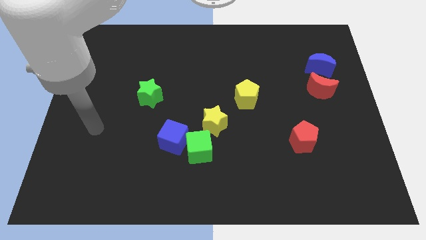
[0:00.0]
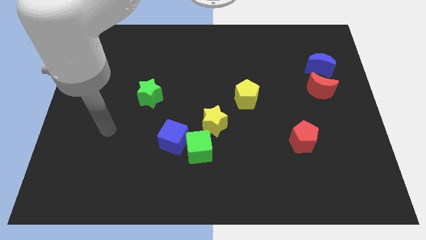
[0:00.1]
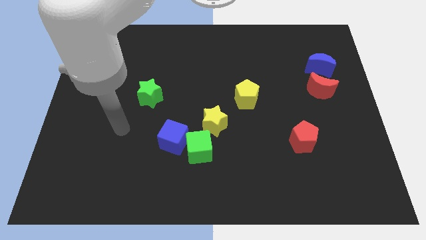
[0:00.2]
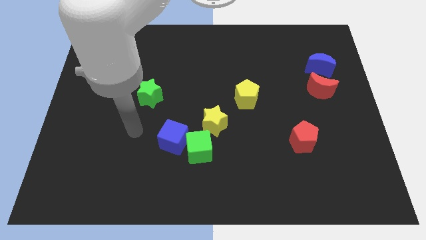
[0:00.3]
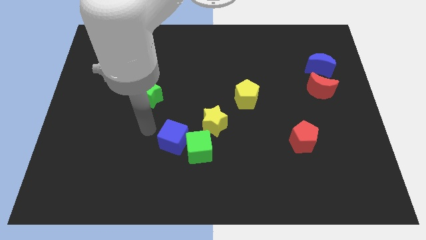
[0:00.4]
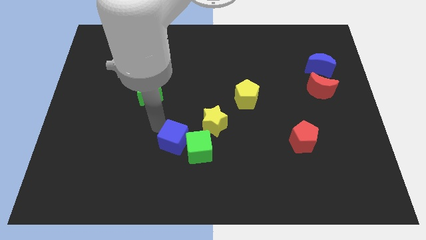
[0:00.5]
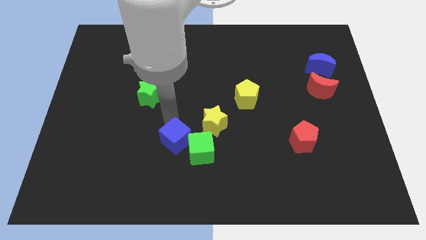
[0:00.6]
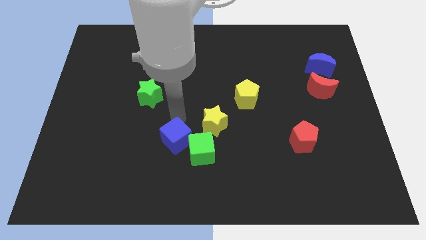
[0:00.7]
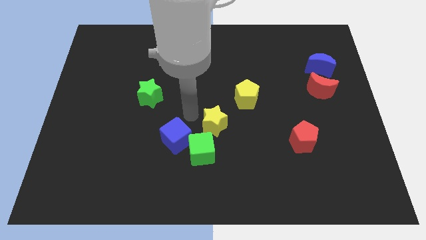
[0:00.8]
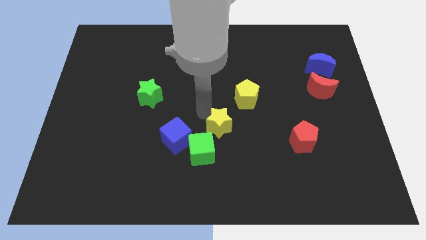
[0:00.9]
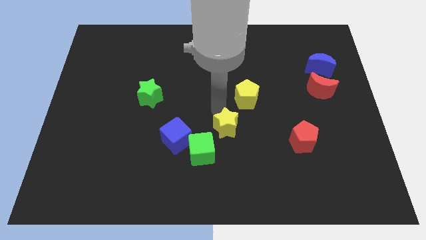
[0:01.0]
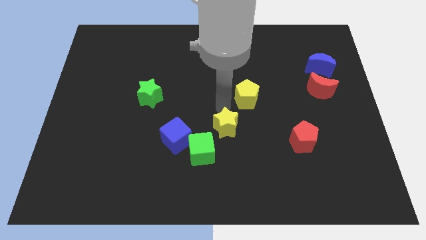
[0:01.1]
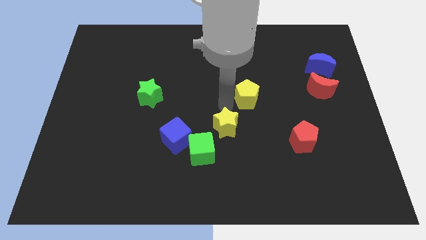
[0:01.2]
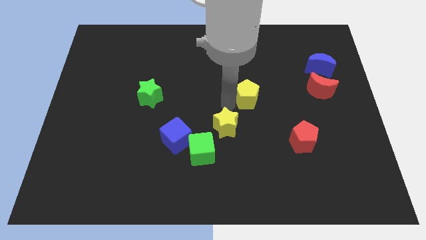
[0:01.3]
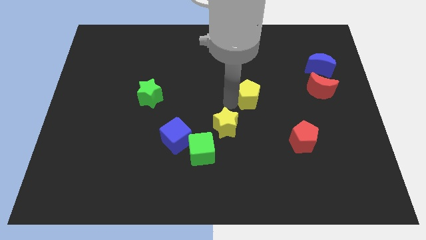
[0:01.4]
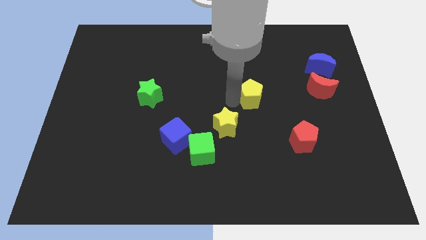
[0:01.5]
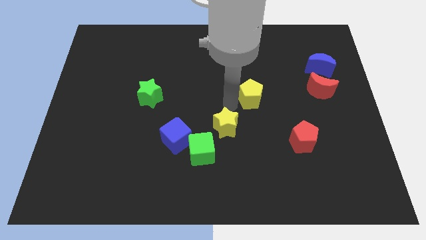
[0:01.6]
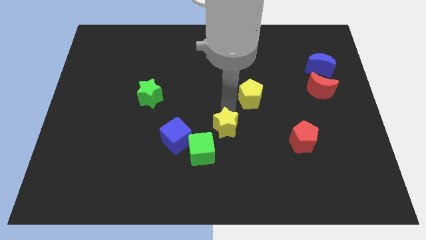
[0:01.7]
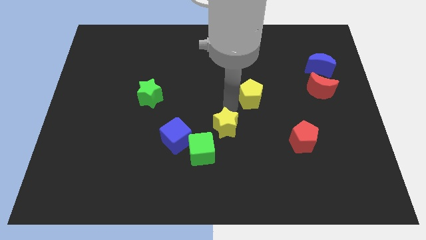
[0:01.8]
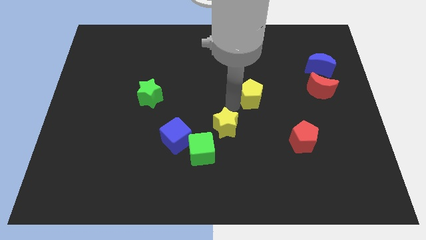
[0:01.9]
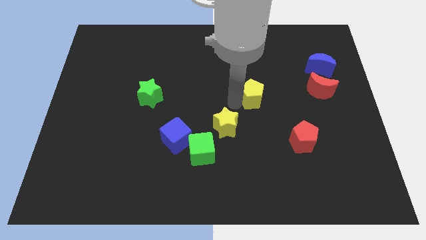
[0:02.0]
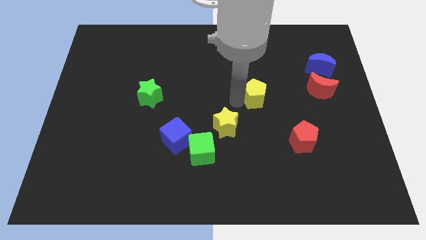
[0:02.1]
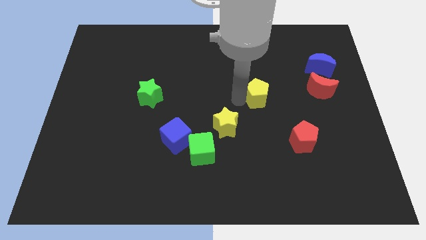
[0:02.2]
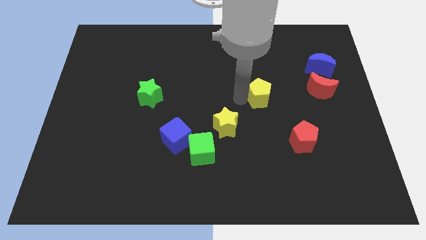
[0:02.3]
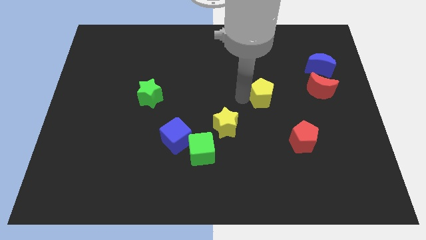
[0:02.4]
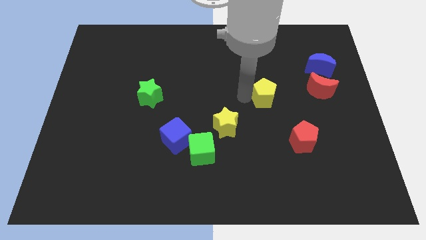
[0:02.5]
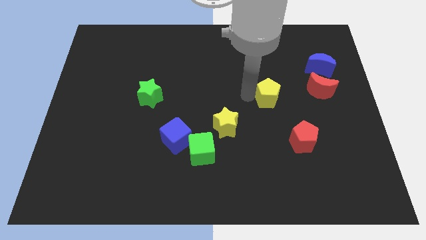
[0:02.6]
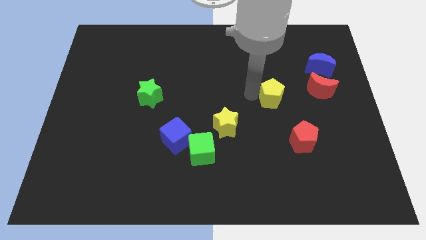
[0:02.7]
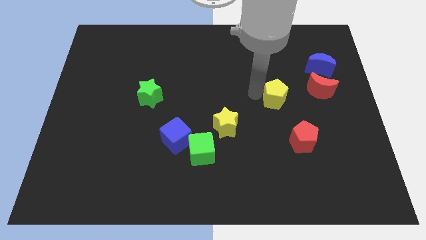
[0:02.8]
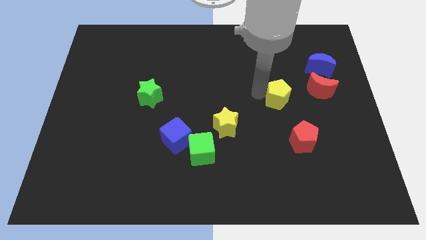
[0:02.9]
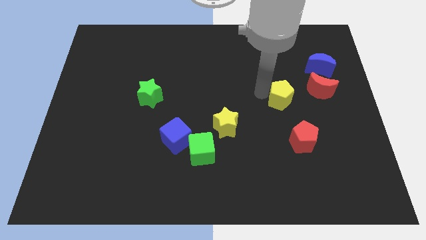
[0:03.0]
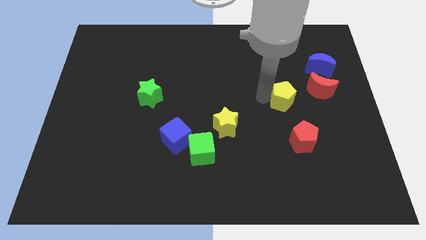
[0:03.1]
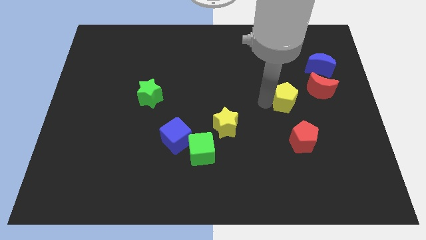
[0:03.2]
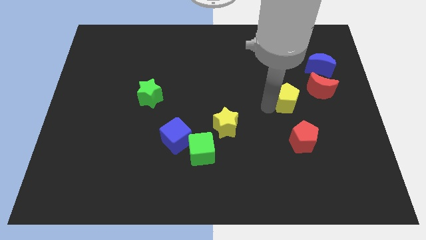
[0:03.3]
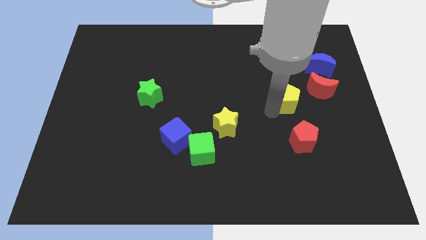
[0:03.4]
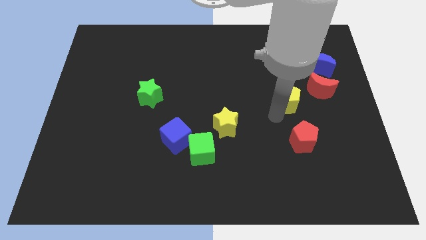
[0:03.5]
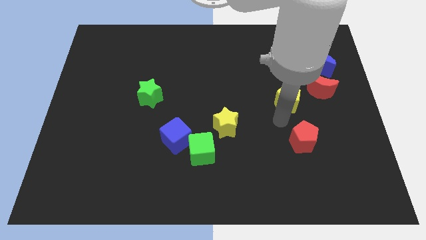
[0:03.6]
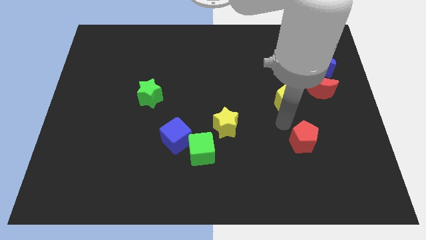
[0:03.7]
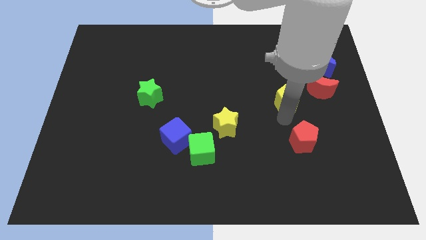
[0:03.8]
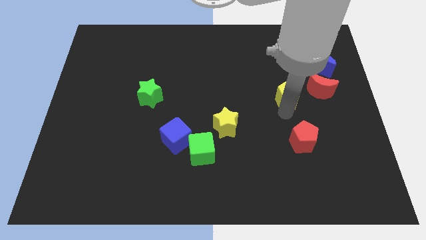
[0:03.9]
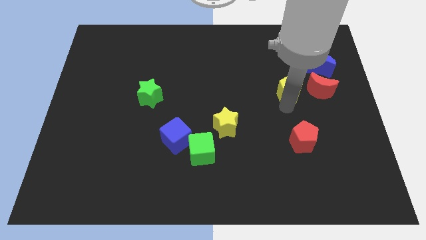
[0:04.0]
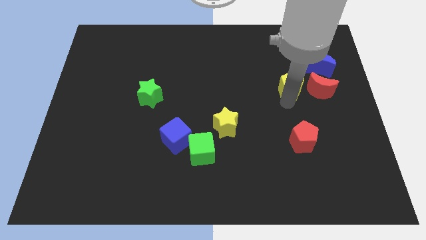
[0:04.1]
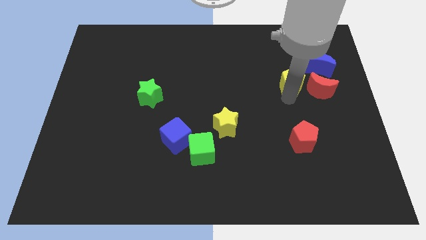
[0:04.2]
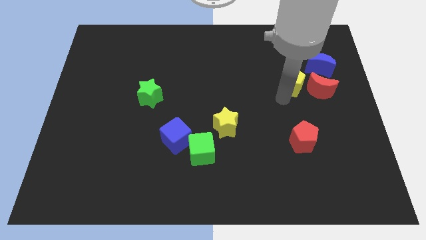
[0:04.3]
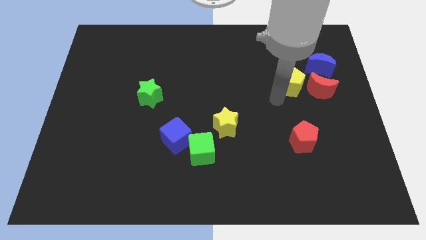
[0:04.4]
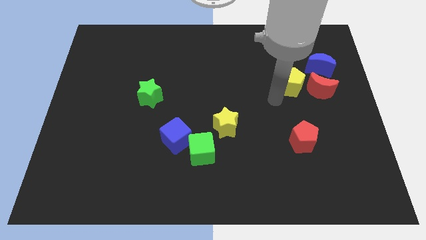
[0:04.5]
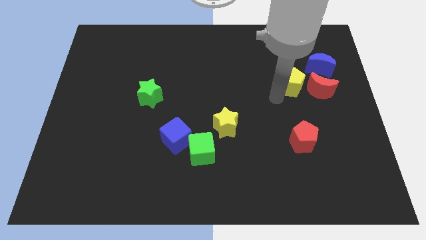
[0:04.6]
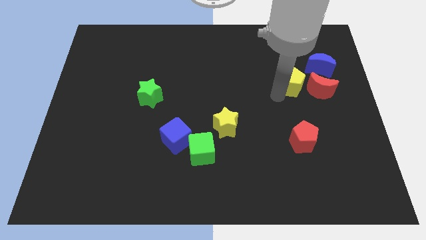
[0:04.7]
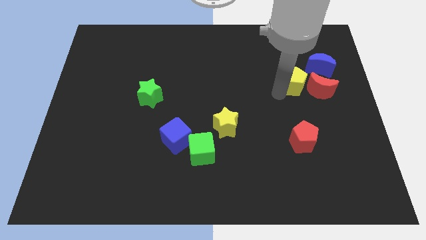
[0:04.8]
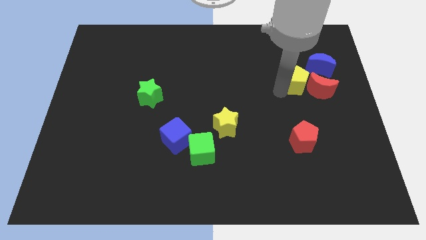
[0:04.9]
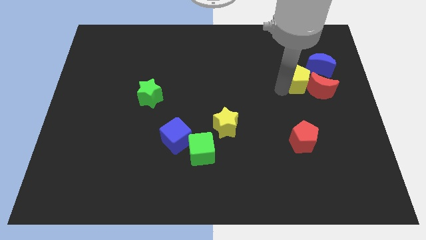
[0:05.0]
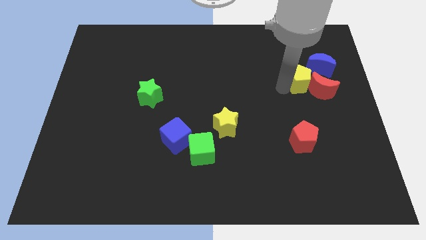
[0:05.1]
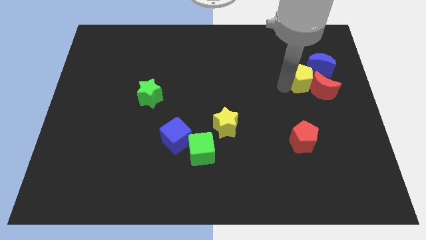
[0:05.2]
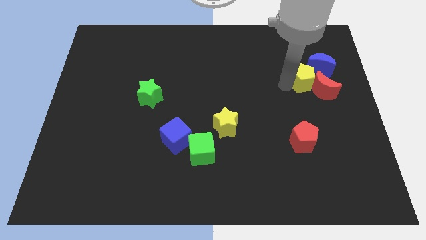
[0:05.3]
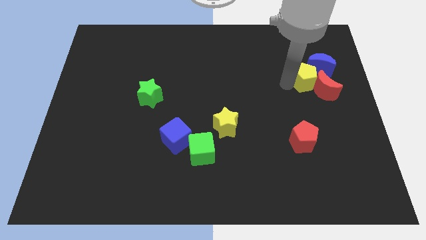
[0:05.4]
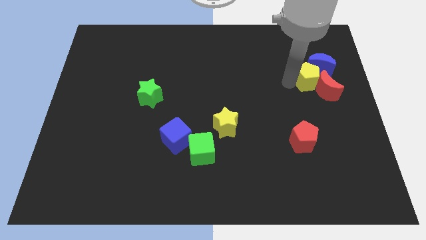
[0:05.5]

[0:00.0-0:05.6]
move the yellow pentagon to the blue moon

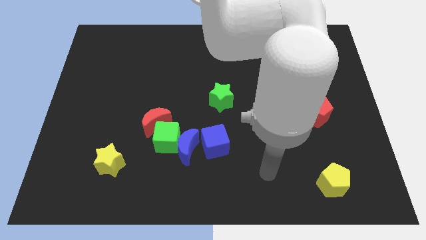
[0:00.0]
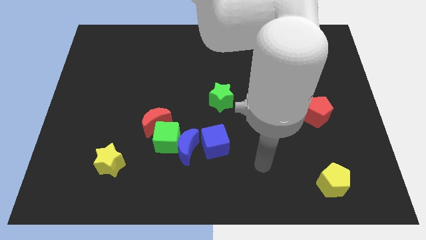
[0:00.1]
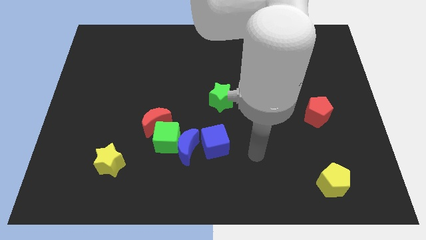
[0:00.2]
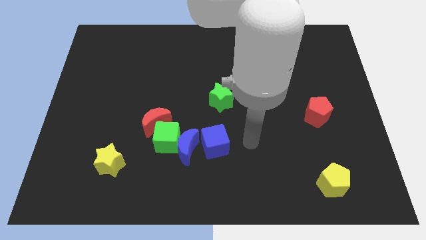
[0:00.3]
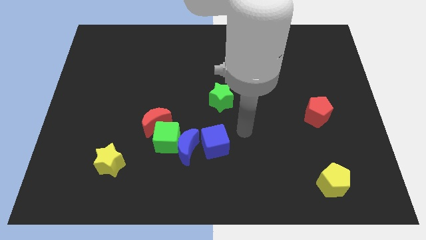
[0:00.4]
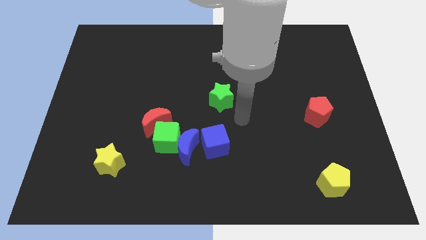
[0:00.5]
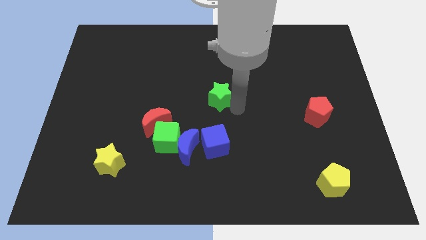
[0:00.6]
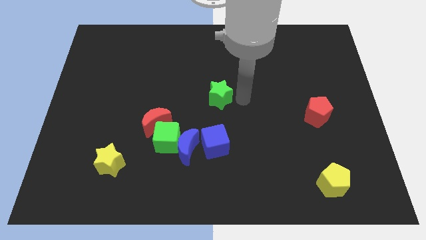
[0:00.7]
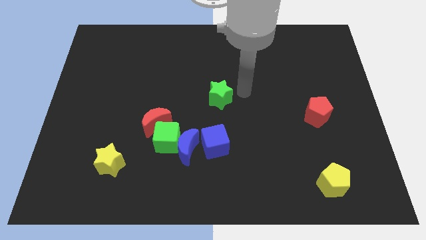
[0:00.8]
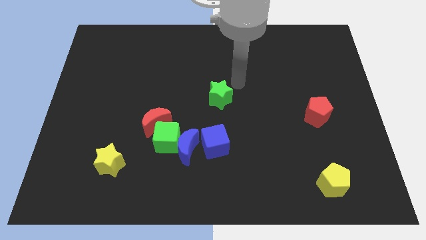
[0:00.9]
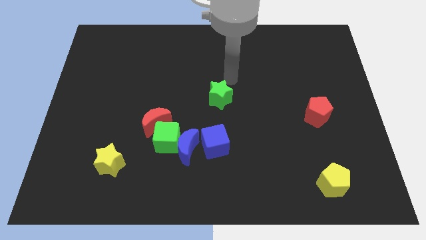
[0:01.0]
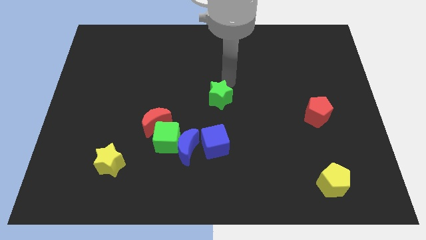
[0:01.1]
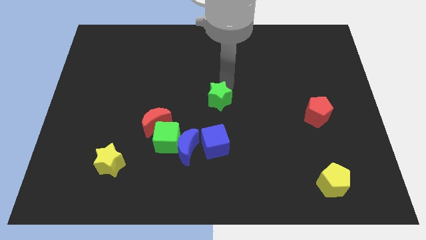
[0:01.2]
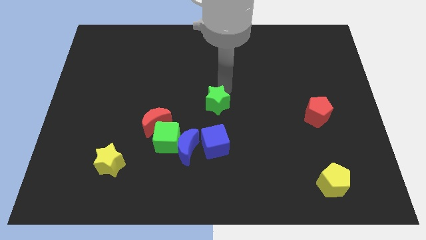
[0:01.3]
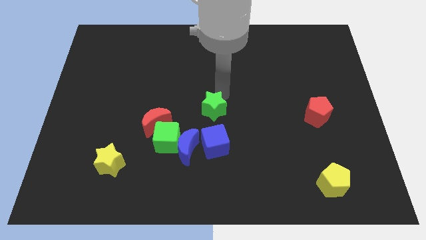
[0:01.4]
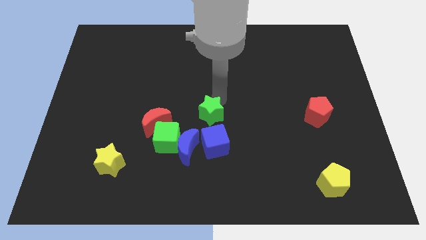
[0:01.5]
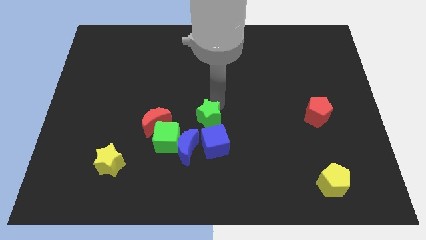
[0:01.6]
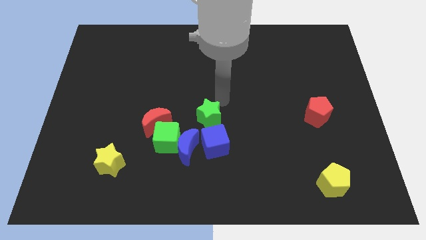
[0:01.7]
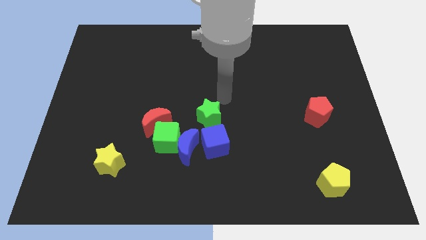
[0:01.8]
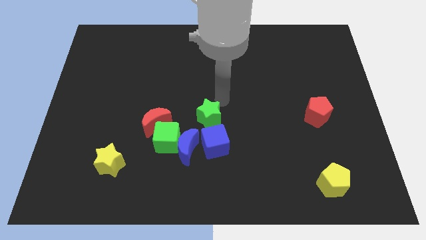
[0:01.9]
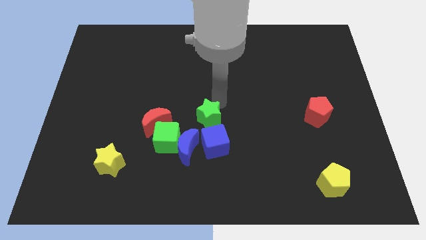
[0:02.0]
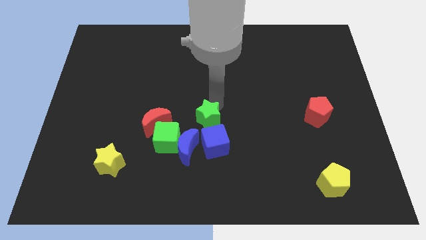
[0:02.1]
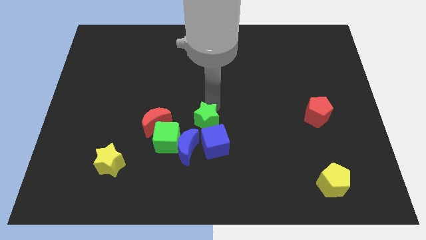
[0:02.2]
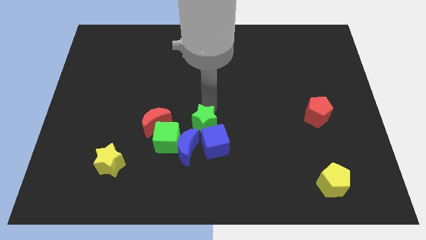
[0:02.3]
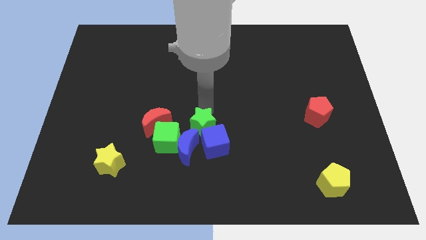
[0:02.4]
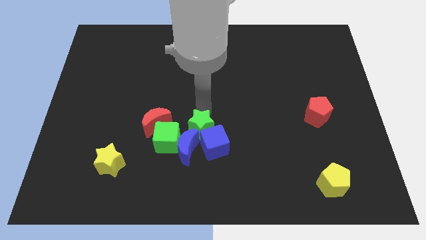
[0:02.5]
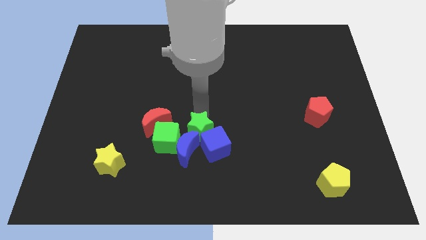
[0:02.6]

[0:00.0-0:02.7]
put the green star close to the blue moon
